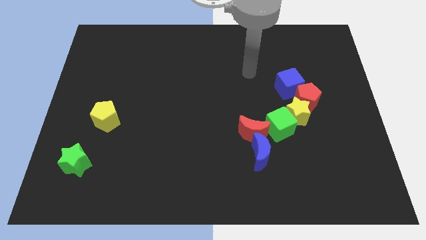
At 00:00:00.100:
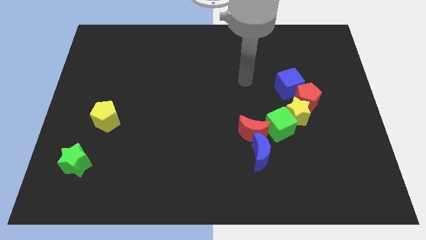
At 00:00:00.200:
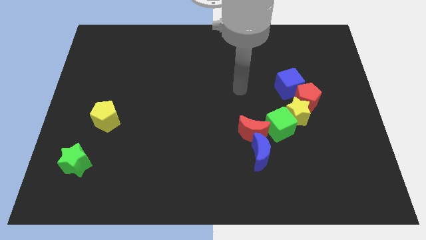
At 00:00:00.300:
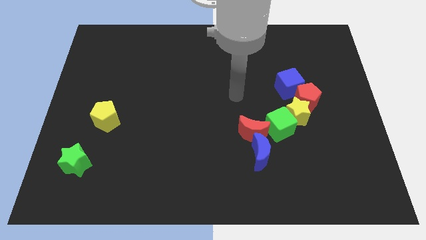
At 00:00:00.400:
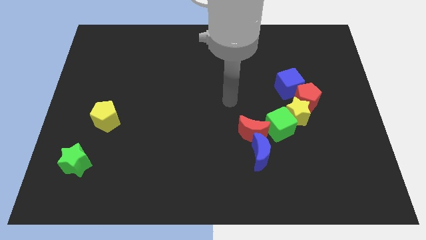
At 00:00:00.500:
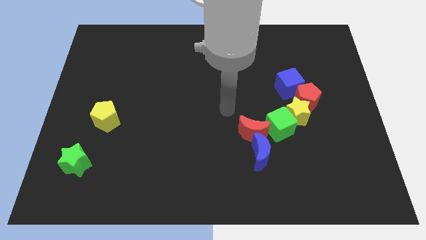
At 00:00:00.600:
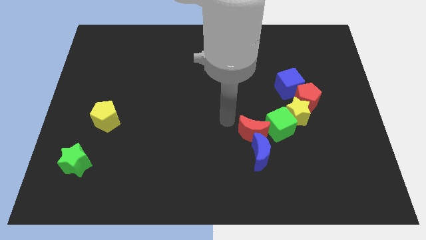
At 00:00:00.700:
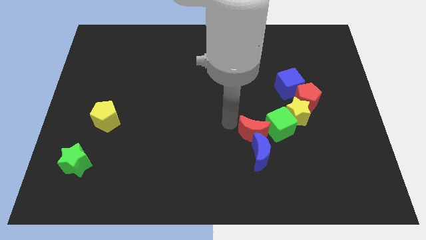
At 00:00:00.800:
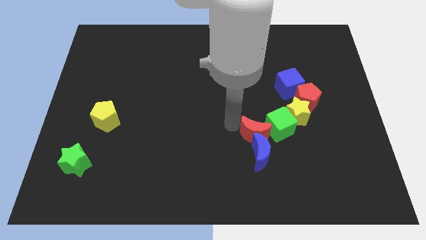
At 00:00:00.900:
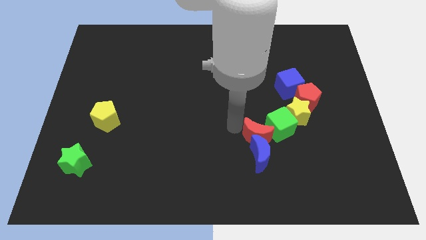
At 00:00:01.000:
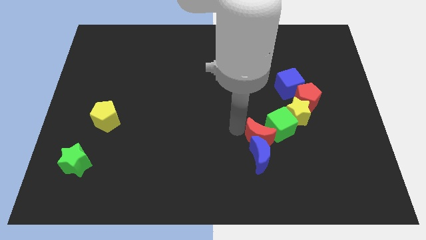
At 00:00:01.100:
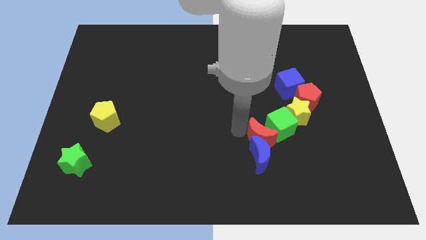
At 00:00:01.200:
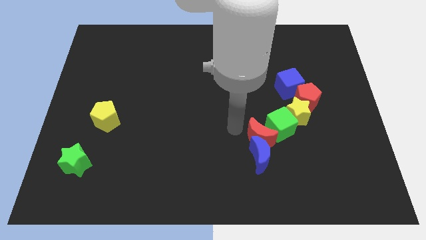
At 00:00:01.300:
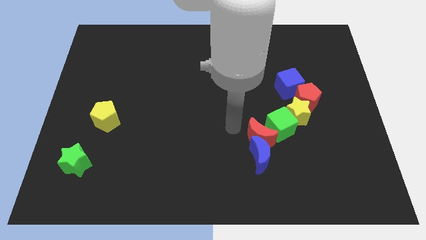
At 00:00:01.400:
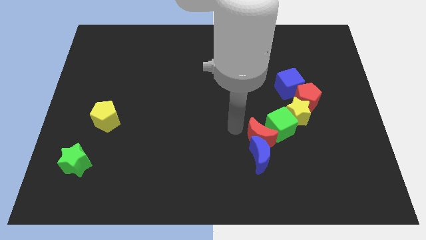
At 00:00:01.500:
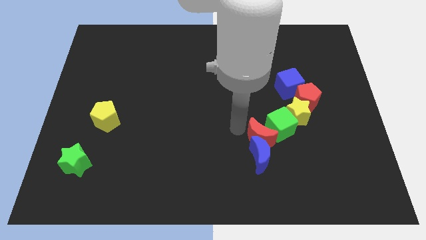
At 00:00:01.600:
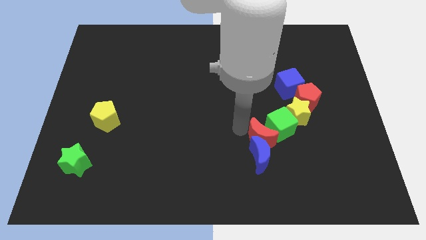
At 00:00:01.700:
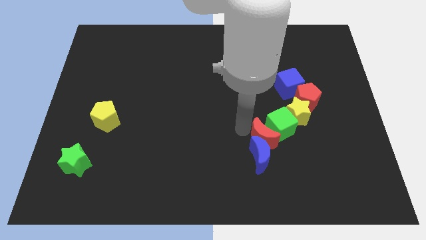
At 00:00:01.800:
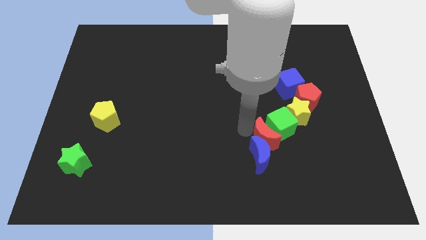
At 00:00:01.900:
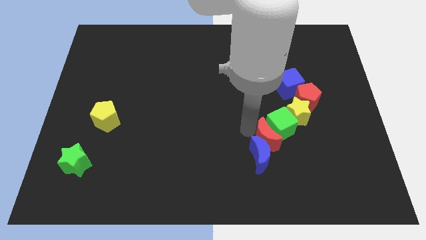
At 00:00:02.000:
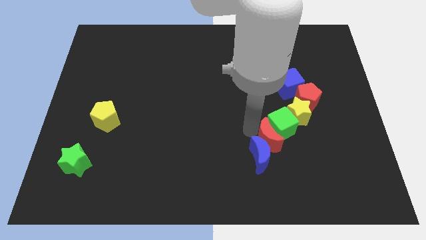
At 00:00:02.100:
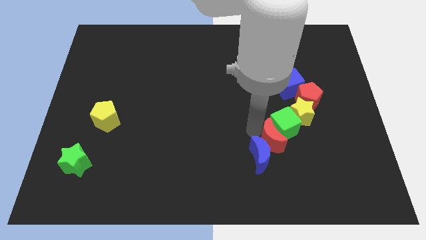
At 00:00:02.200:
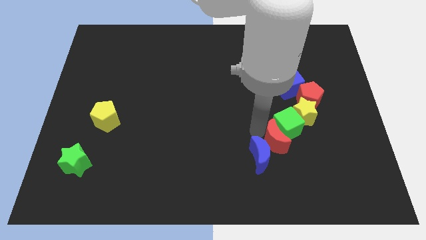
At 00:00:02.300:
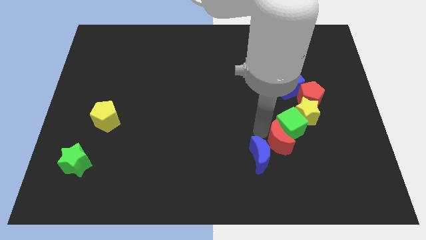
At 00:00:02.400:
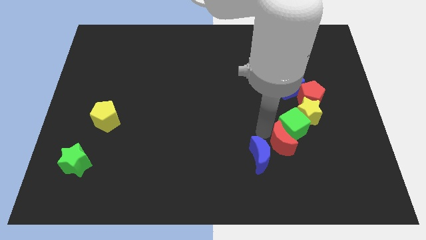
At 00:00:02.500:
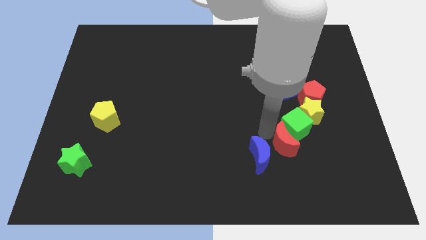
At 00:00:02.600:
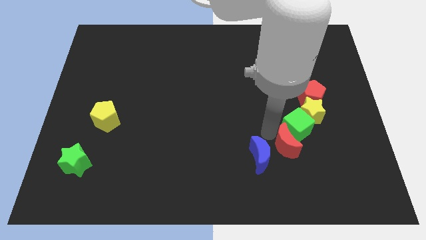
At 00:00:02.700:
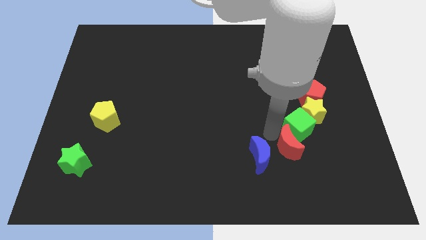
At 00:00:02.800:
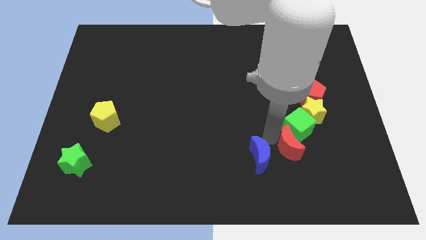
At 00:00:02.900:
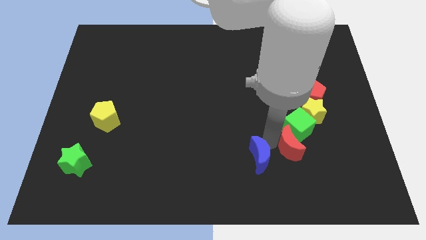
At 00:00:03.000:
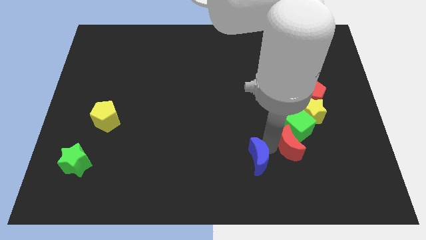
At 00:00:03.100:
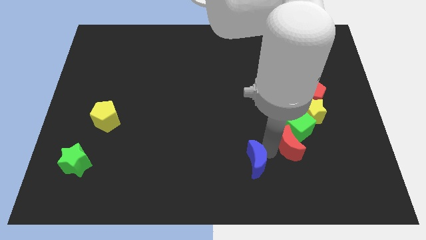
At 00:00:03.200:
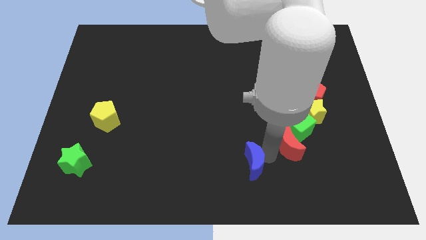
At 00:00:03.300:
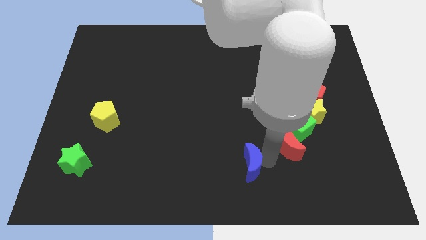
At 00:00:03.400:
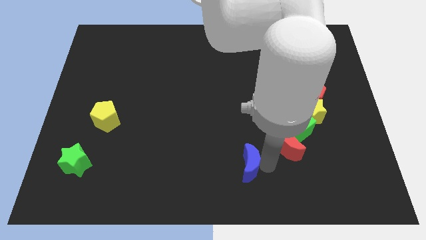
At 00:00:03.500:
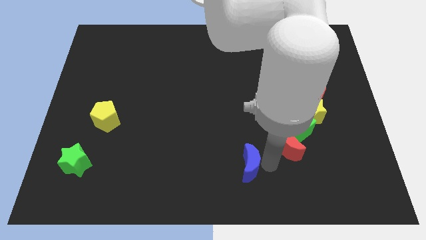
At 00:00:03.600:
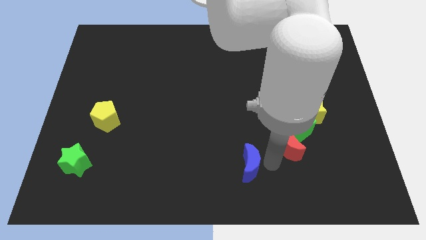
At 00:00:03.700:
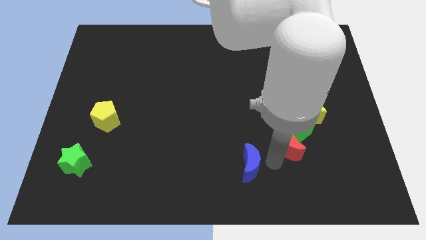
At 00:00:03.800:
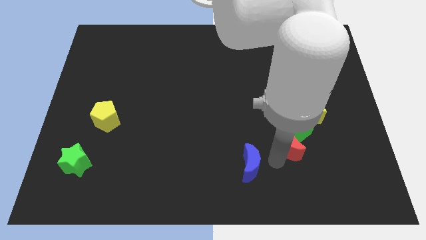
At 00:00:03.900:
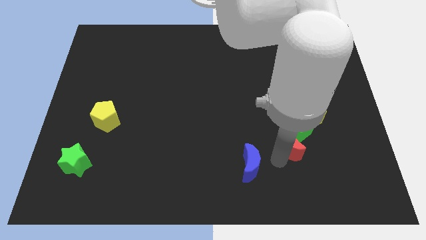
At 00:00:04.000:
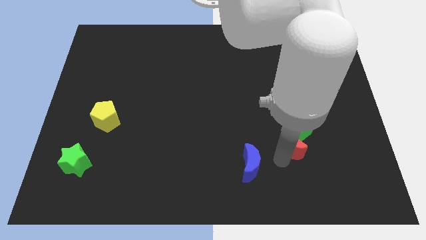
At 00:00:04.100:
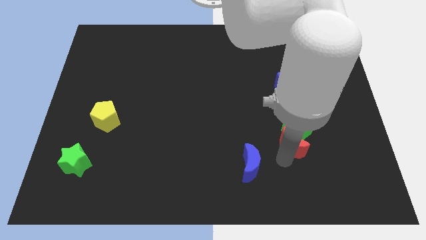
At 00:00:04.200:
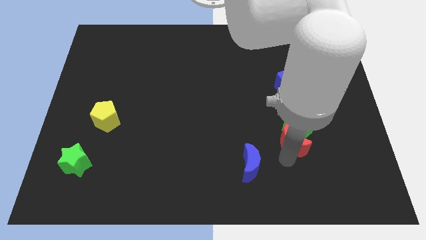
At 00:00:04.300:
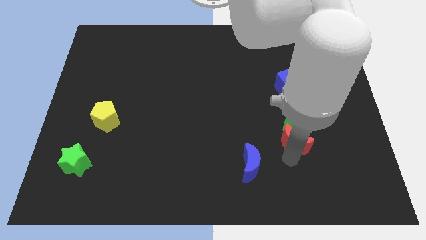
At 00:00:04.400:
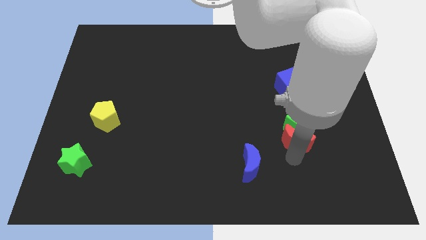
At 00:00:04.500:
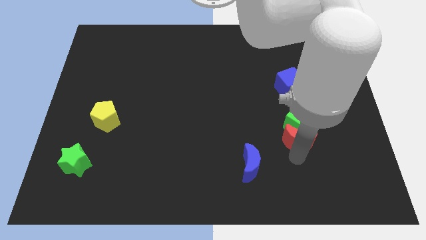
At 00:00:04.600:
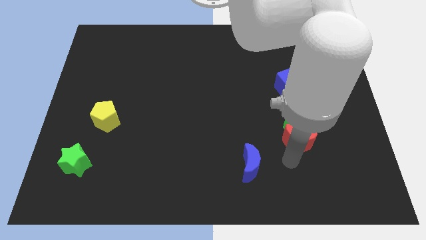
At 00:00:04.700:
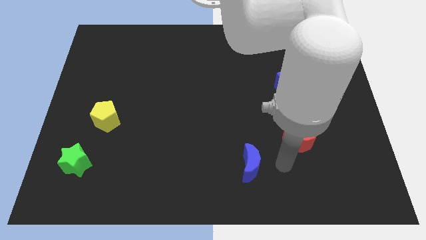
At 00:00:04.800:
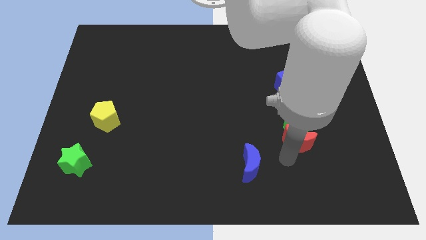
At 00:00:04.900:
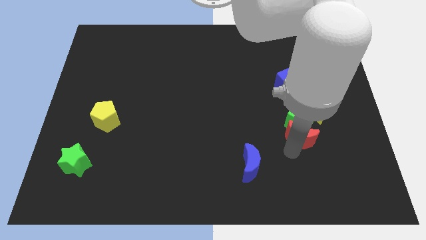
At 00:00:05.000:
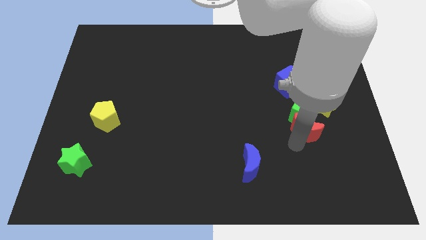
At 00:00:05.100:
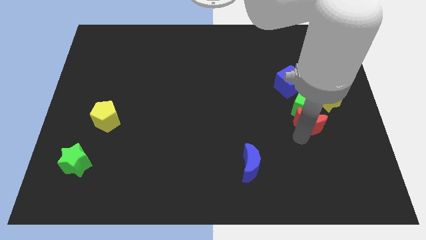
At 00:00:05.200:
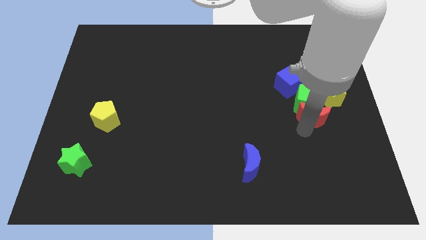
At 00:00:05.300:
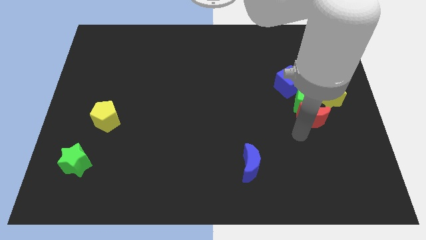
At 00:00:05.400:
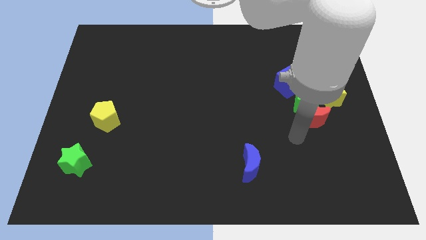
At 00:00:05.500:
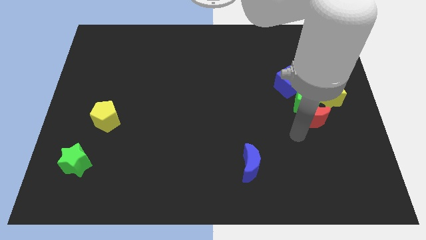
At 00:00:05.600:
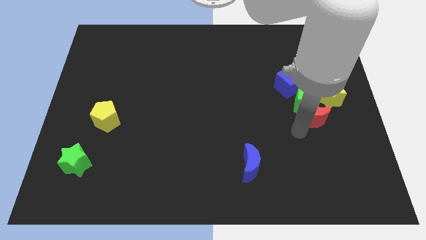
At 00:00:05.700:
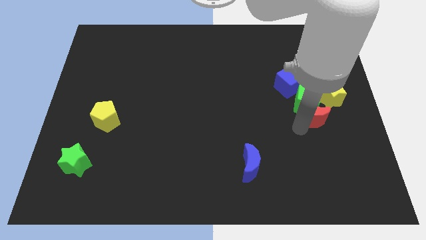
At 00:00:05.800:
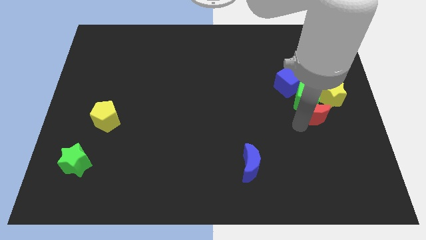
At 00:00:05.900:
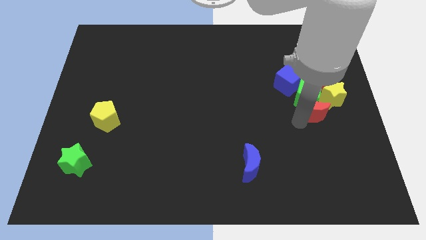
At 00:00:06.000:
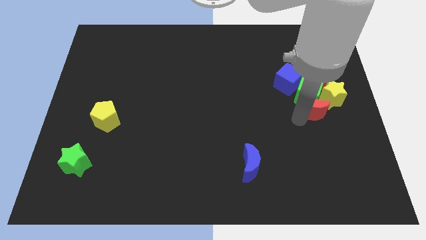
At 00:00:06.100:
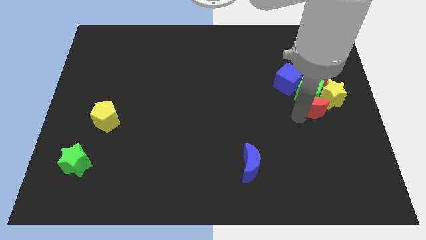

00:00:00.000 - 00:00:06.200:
push the red moon to the yellow star
